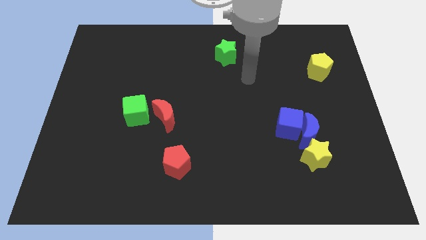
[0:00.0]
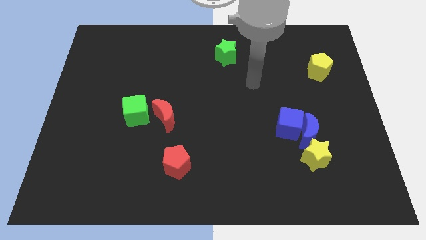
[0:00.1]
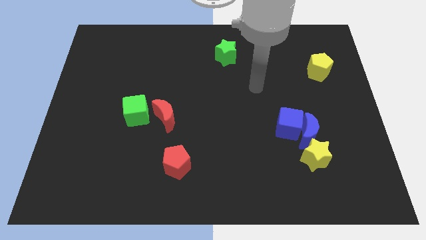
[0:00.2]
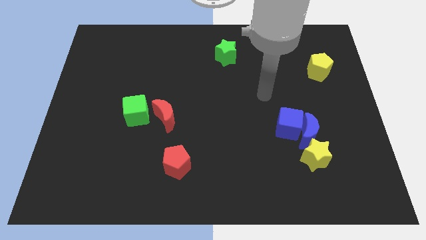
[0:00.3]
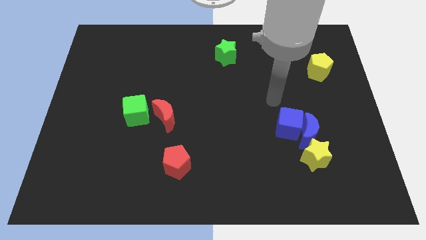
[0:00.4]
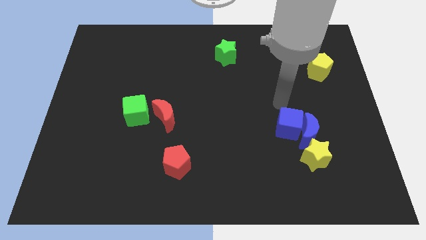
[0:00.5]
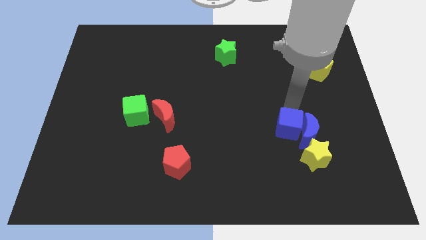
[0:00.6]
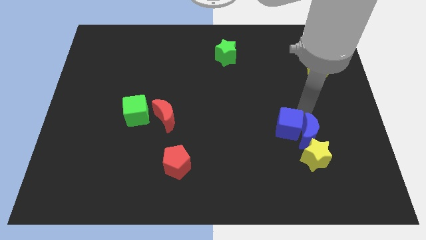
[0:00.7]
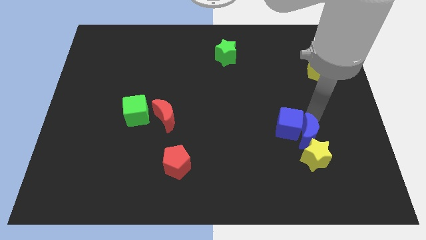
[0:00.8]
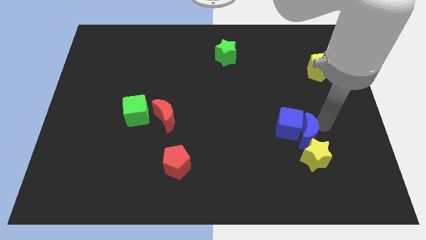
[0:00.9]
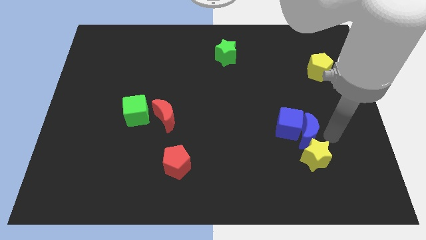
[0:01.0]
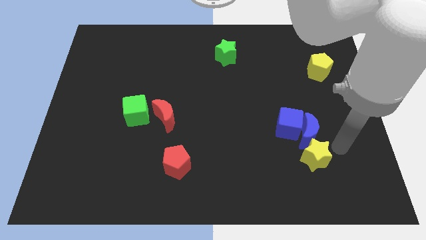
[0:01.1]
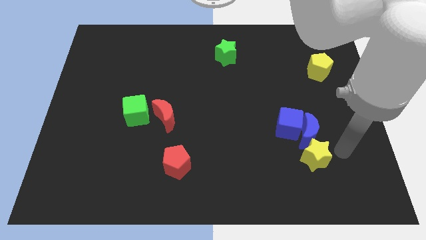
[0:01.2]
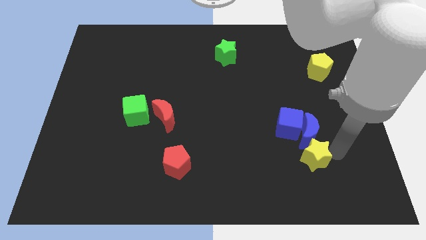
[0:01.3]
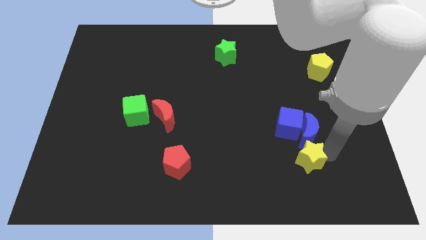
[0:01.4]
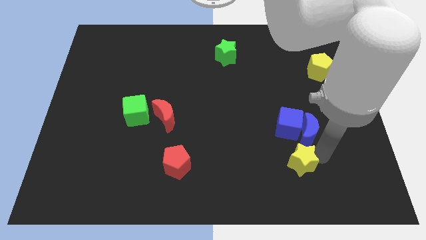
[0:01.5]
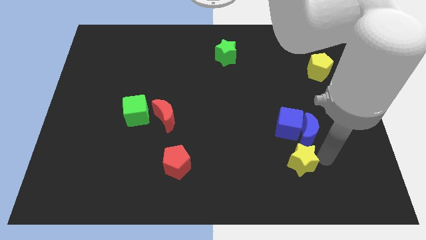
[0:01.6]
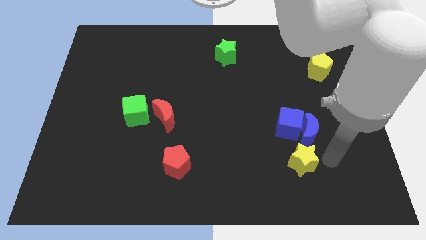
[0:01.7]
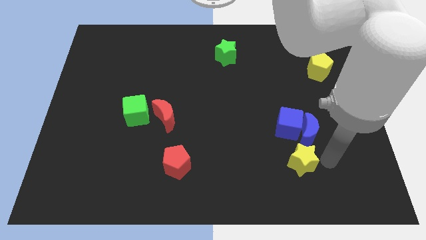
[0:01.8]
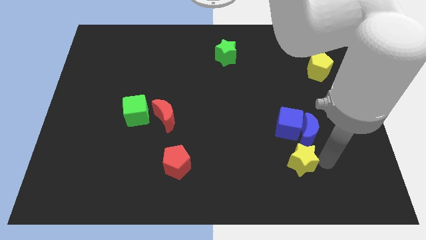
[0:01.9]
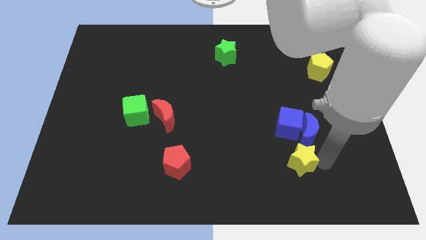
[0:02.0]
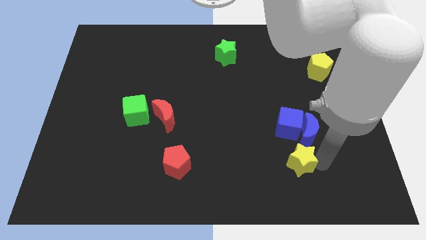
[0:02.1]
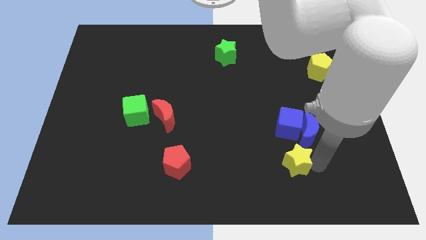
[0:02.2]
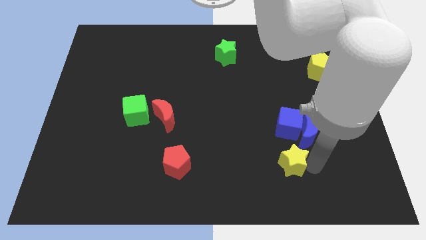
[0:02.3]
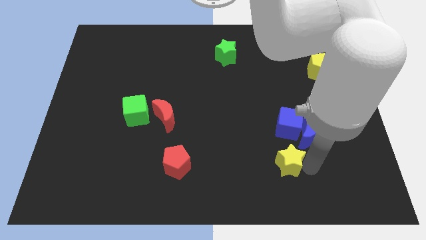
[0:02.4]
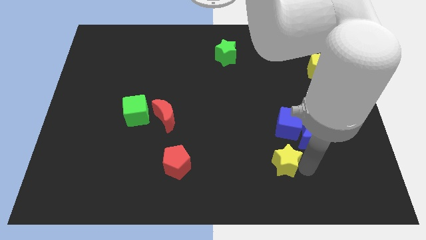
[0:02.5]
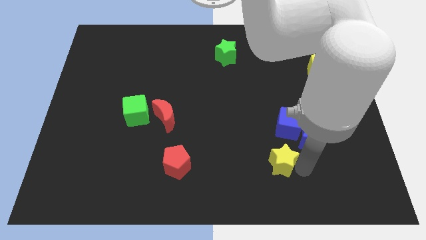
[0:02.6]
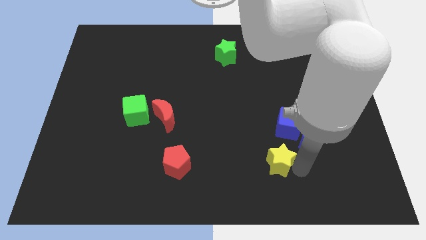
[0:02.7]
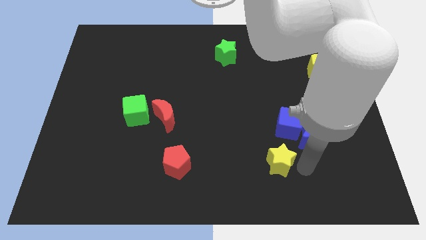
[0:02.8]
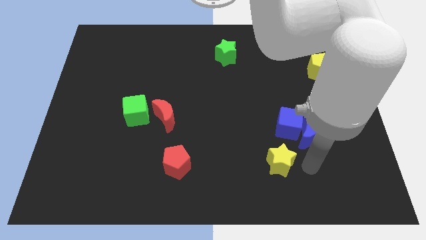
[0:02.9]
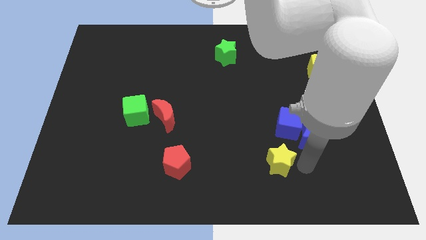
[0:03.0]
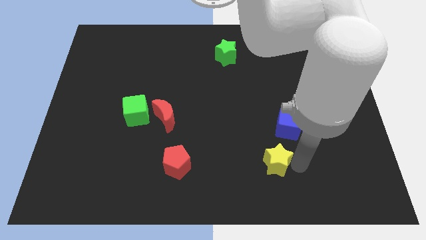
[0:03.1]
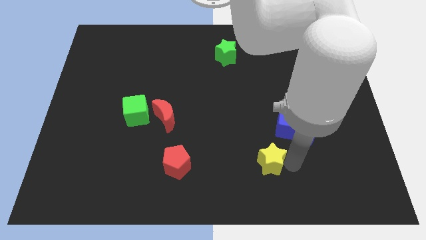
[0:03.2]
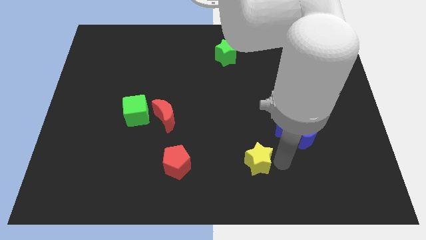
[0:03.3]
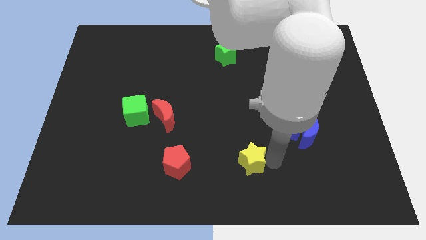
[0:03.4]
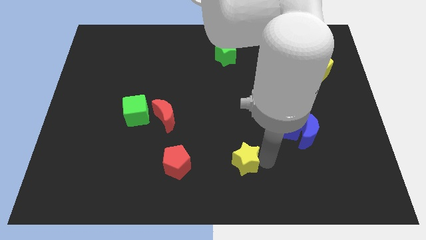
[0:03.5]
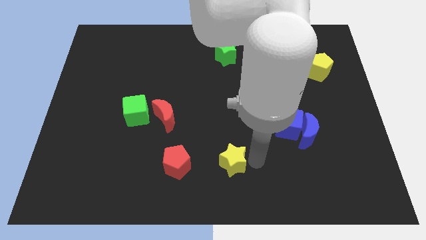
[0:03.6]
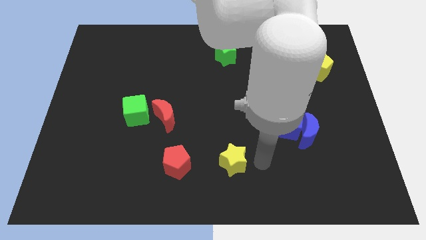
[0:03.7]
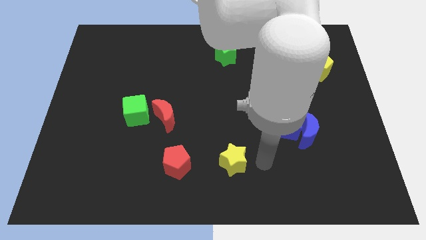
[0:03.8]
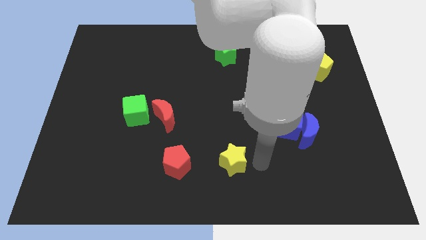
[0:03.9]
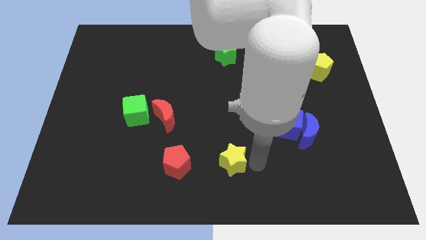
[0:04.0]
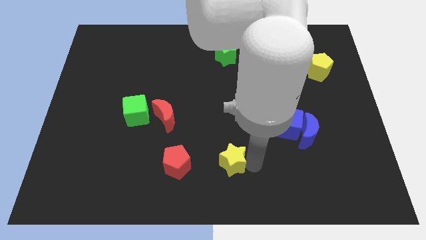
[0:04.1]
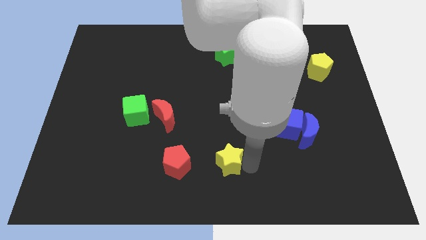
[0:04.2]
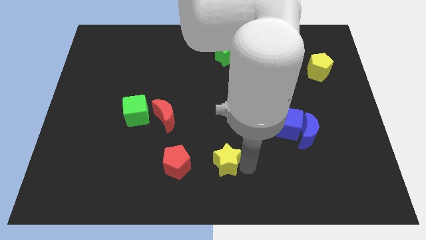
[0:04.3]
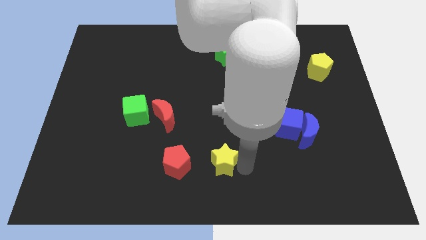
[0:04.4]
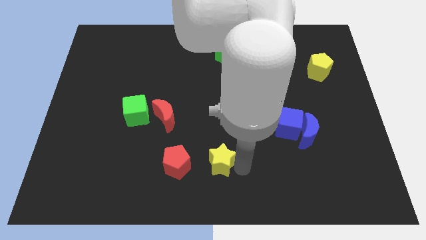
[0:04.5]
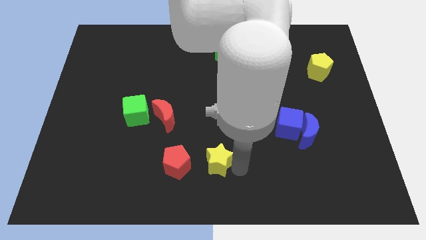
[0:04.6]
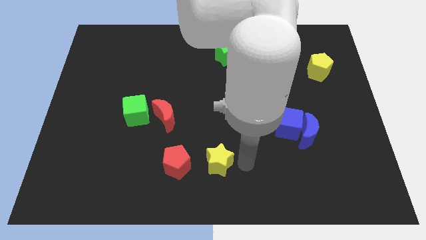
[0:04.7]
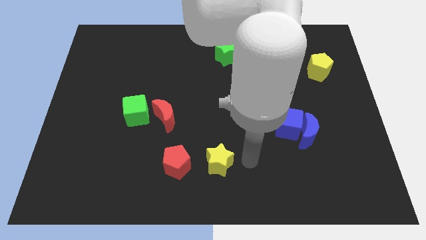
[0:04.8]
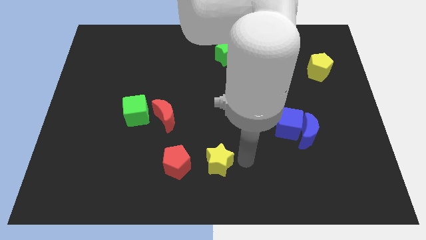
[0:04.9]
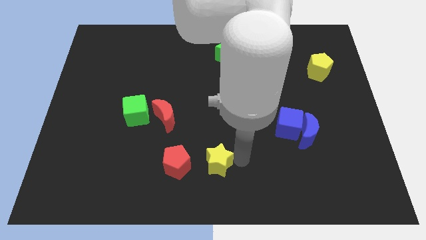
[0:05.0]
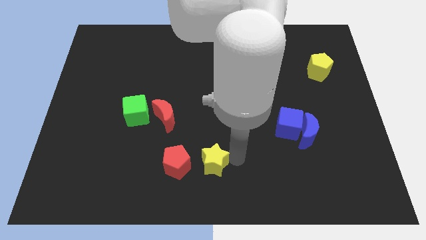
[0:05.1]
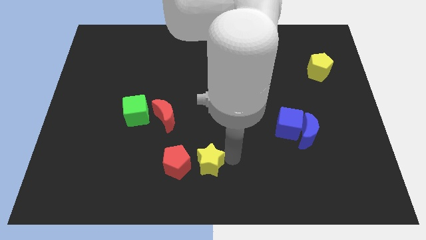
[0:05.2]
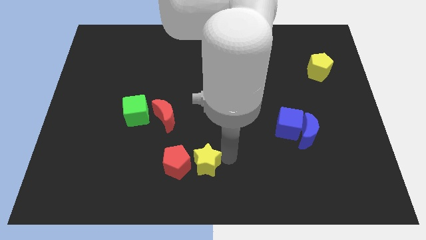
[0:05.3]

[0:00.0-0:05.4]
push the yellow star to the red pentagon
